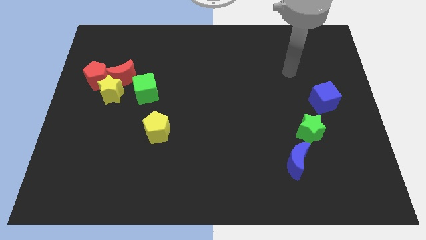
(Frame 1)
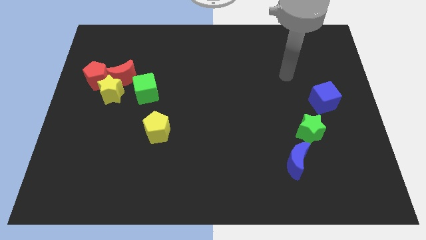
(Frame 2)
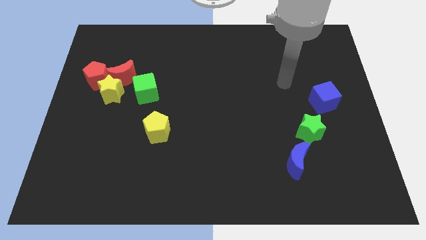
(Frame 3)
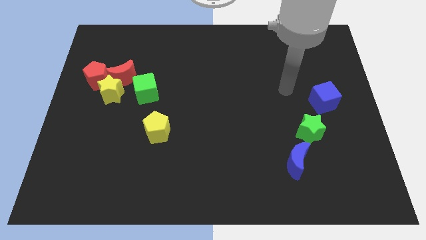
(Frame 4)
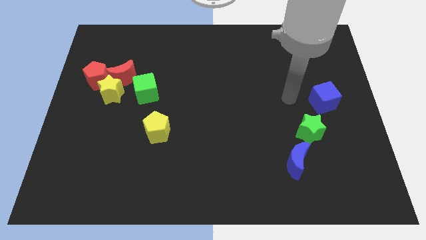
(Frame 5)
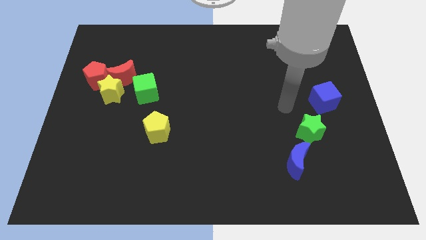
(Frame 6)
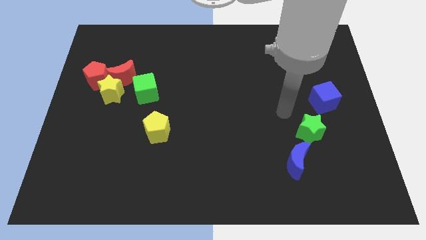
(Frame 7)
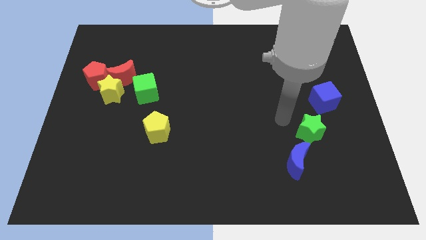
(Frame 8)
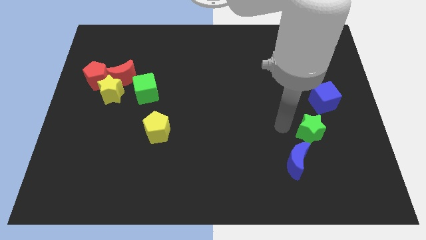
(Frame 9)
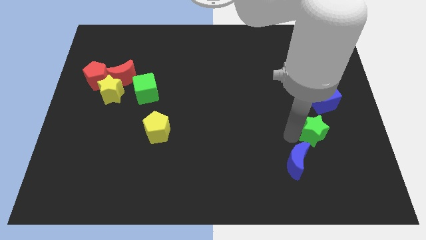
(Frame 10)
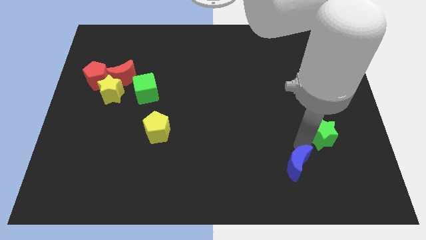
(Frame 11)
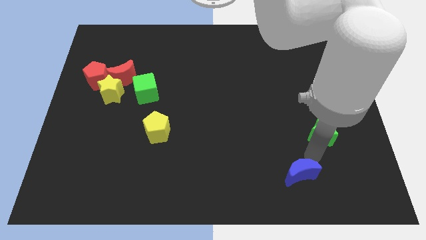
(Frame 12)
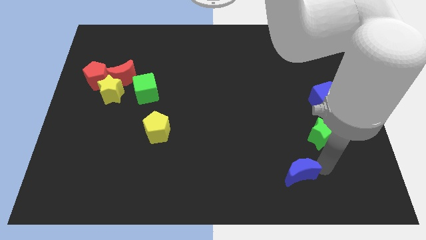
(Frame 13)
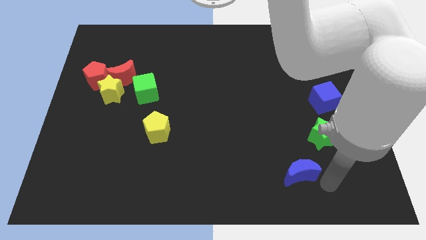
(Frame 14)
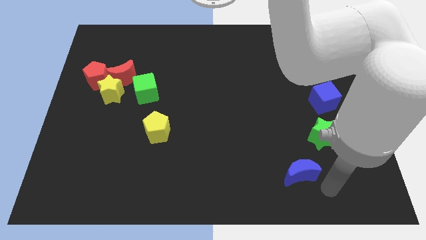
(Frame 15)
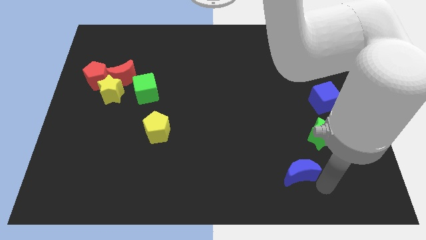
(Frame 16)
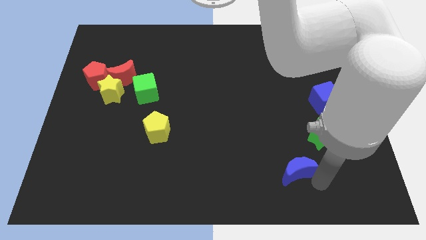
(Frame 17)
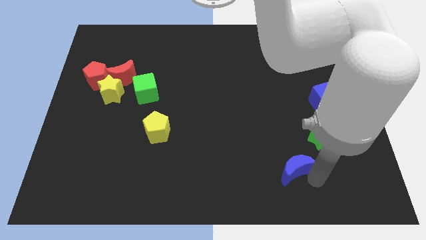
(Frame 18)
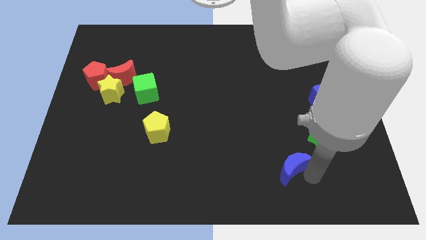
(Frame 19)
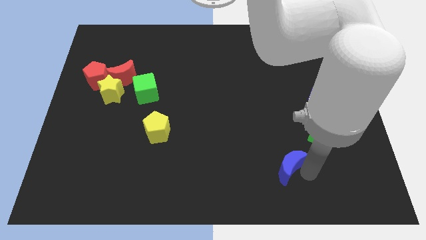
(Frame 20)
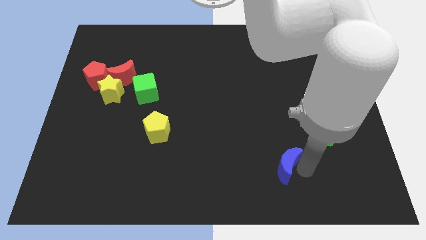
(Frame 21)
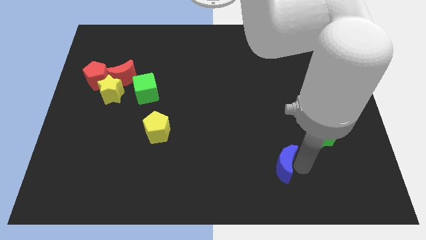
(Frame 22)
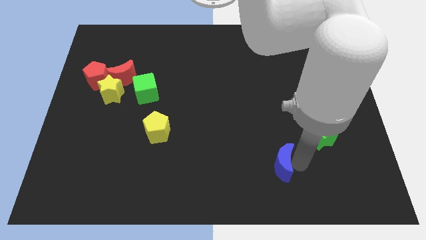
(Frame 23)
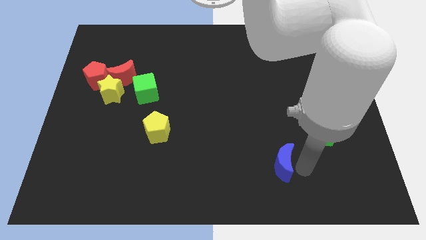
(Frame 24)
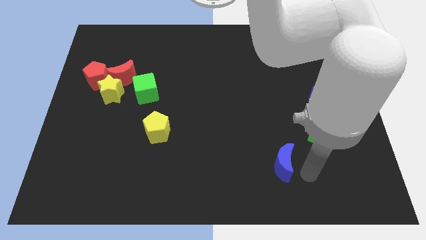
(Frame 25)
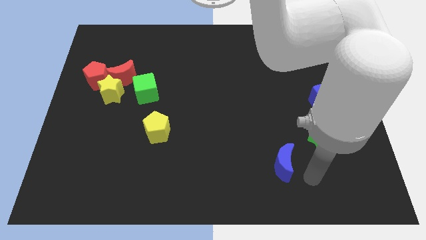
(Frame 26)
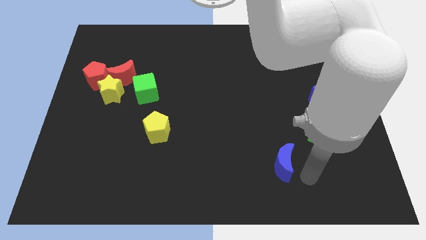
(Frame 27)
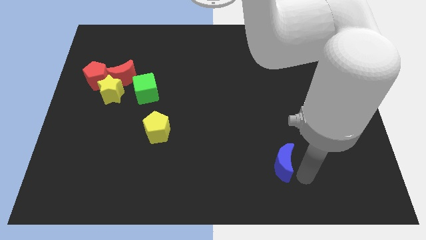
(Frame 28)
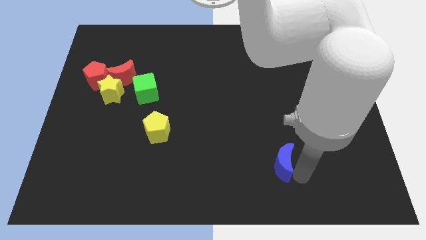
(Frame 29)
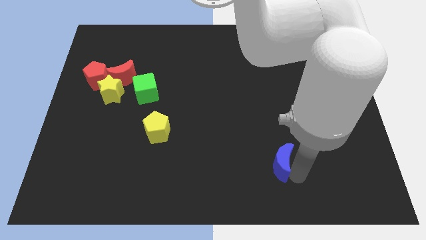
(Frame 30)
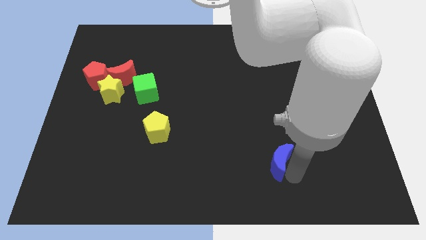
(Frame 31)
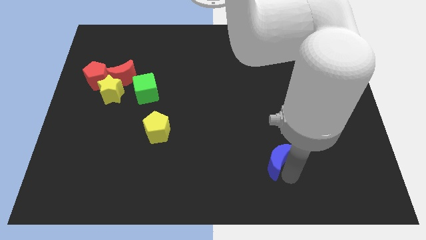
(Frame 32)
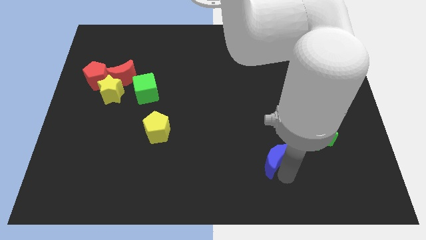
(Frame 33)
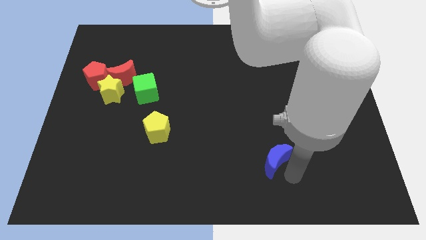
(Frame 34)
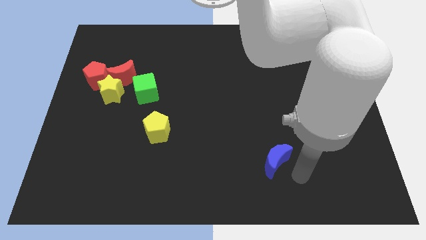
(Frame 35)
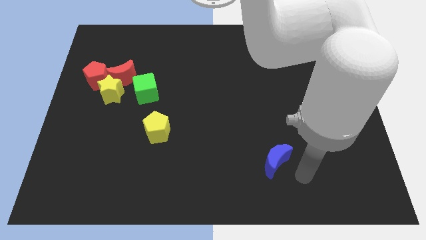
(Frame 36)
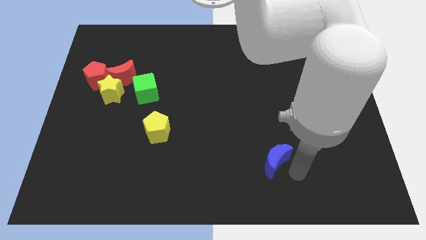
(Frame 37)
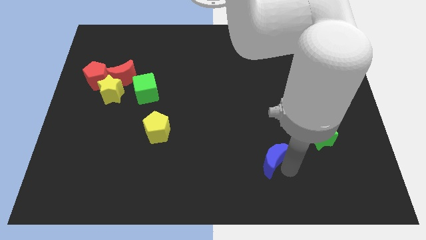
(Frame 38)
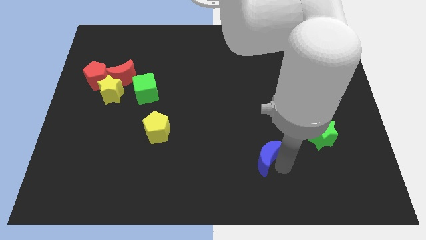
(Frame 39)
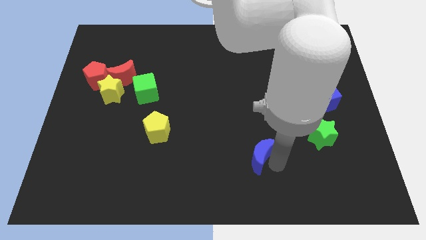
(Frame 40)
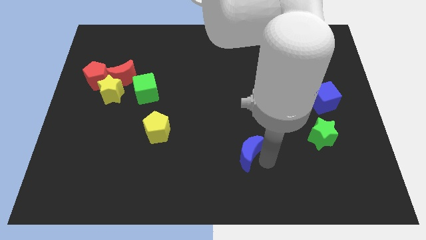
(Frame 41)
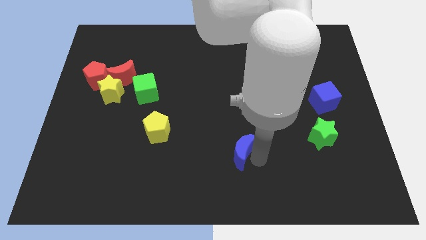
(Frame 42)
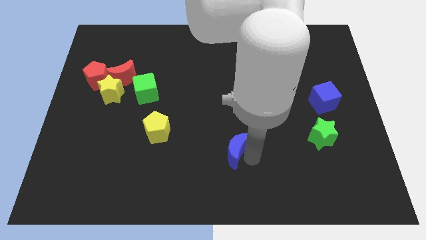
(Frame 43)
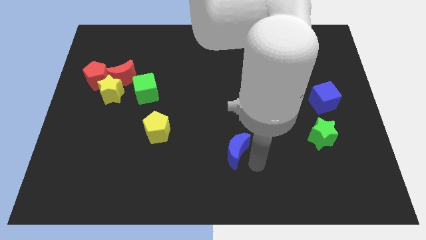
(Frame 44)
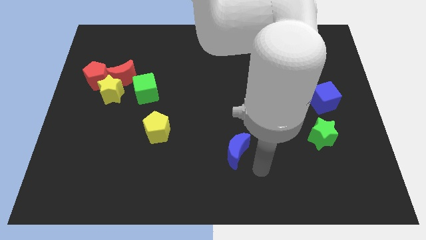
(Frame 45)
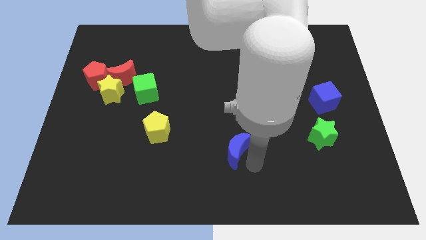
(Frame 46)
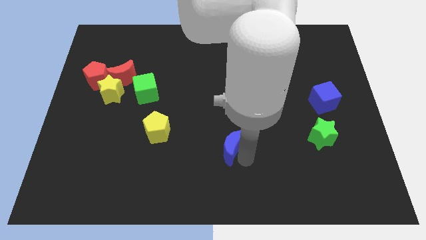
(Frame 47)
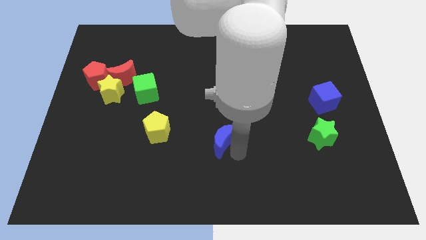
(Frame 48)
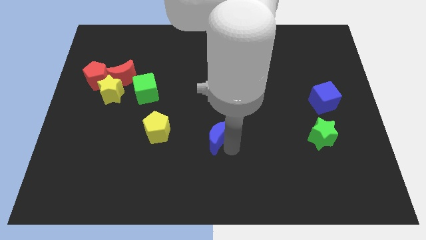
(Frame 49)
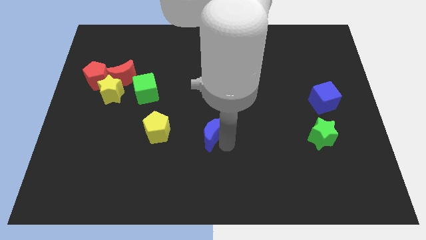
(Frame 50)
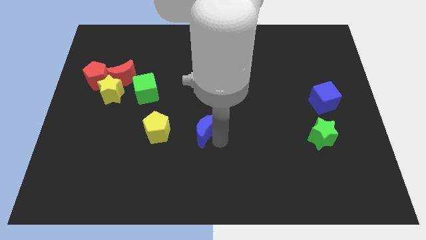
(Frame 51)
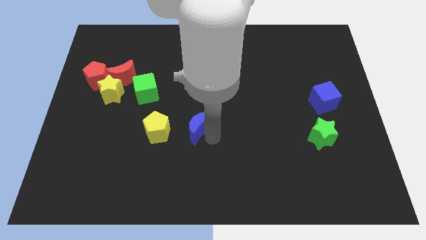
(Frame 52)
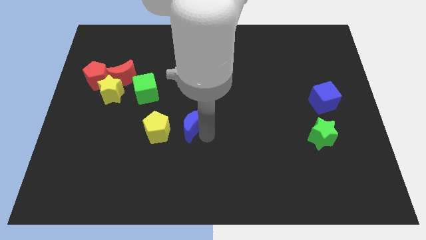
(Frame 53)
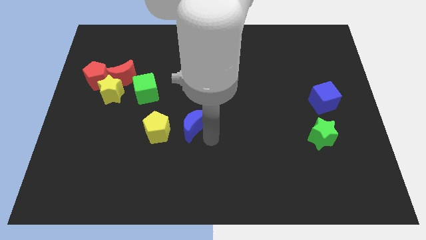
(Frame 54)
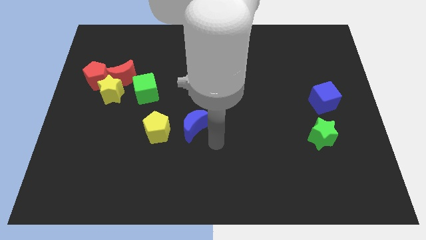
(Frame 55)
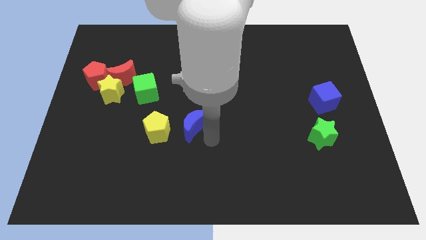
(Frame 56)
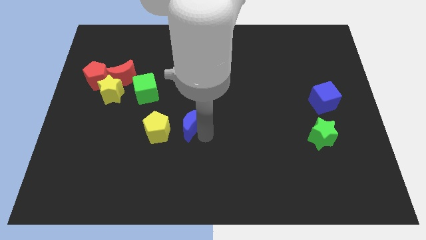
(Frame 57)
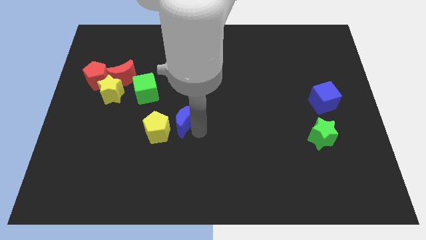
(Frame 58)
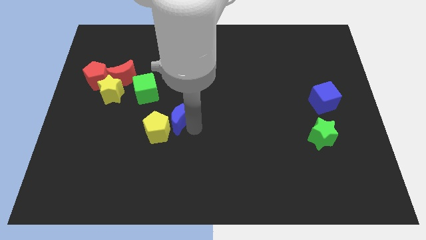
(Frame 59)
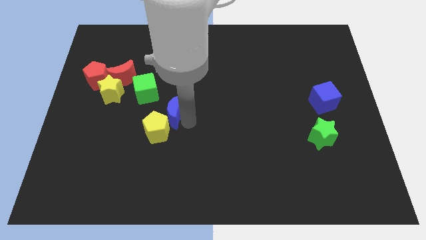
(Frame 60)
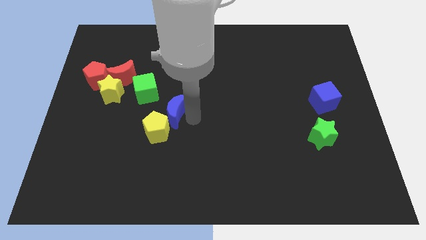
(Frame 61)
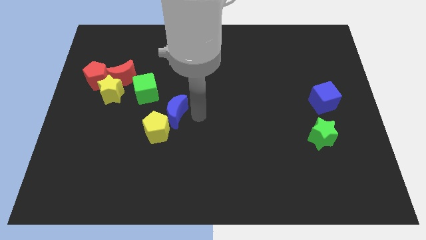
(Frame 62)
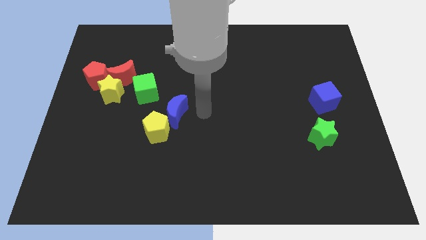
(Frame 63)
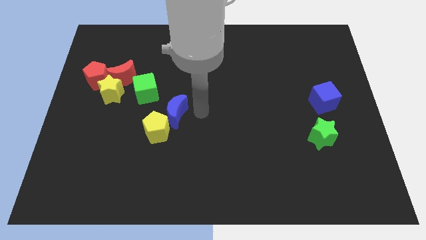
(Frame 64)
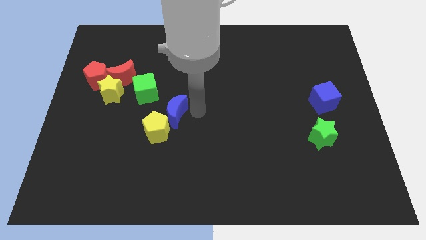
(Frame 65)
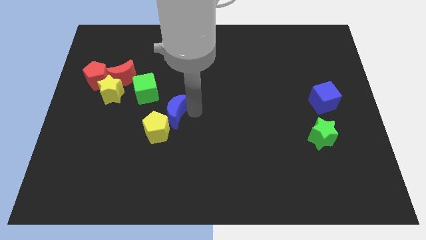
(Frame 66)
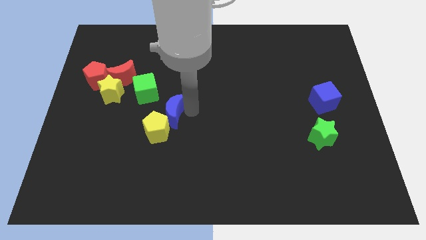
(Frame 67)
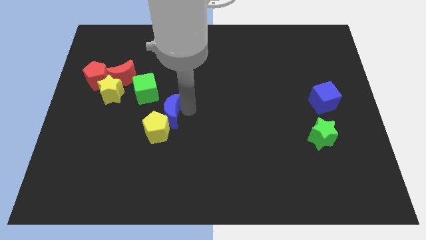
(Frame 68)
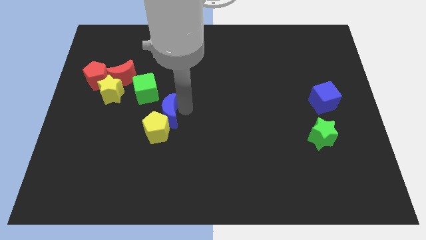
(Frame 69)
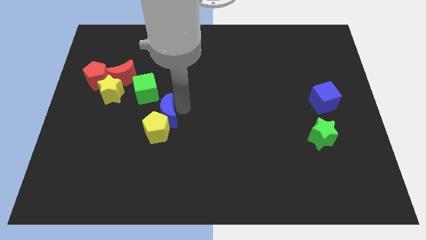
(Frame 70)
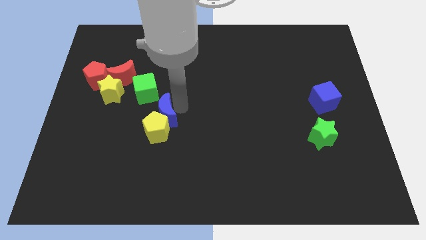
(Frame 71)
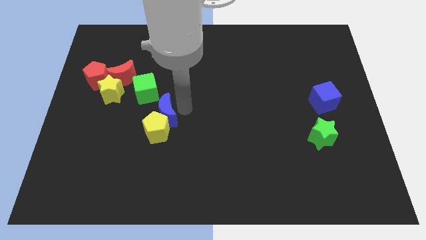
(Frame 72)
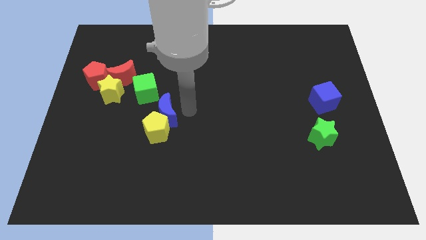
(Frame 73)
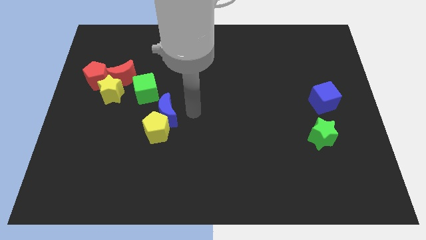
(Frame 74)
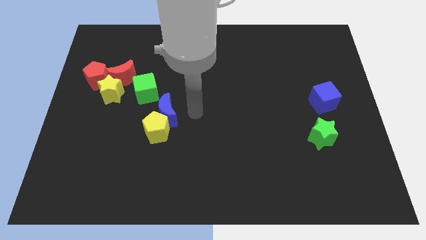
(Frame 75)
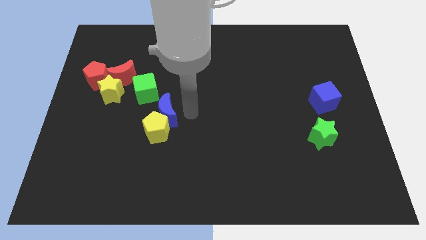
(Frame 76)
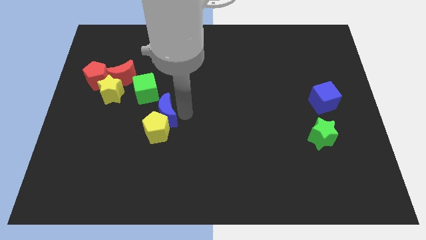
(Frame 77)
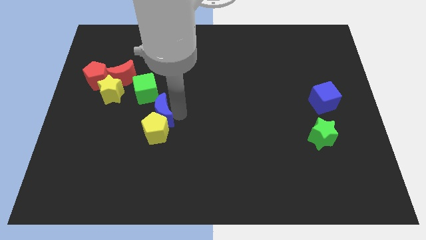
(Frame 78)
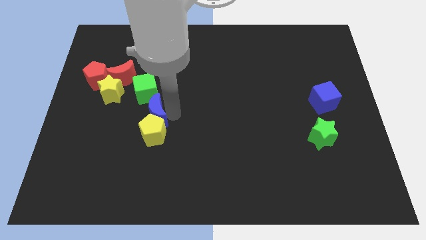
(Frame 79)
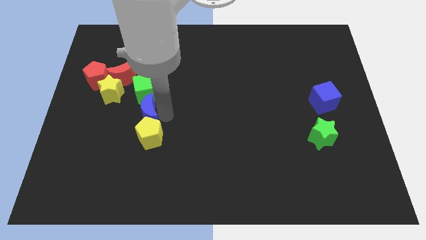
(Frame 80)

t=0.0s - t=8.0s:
slide the blue moon diagonally down and to the right of the yellow star
